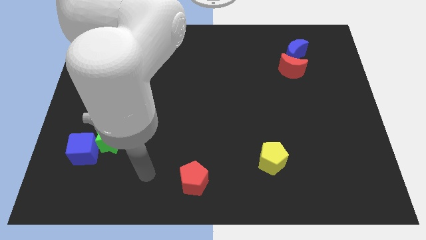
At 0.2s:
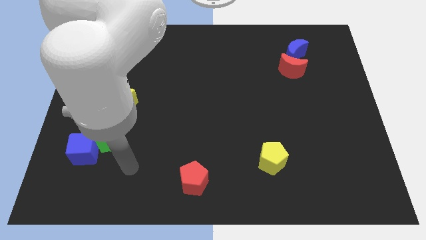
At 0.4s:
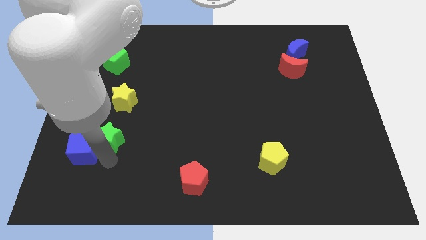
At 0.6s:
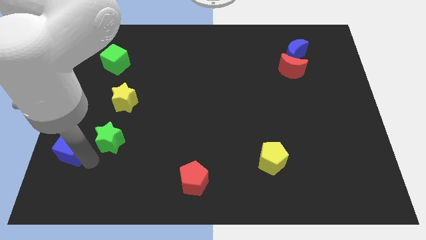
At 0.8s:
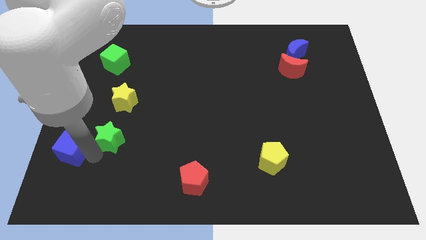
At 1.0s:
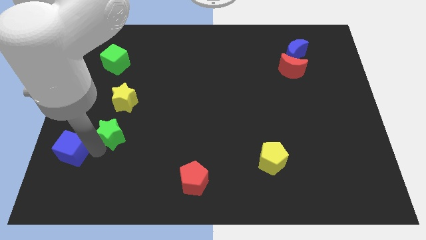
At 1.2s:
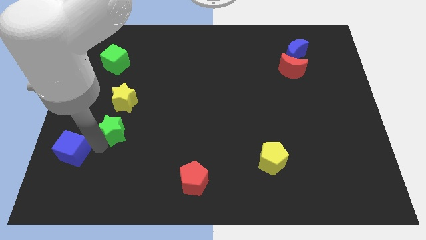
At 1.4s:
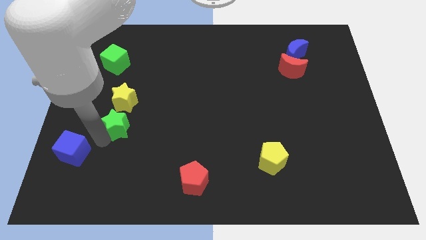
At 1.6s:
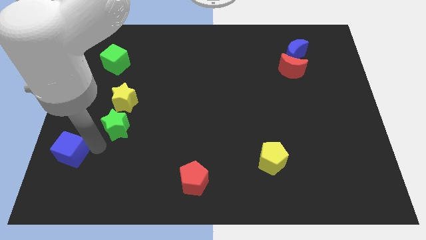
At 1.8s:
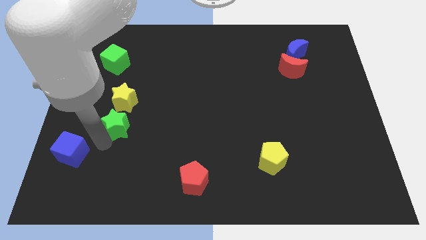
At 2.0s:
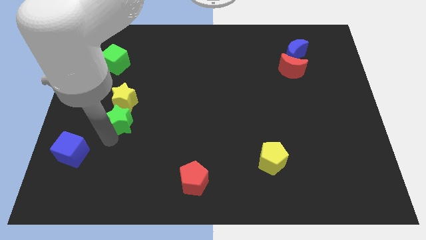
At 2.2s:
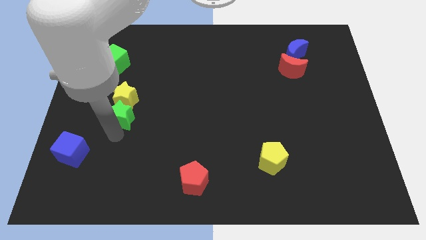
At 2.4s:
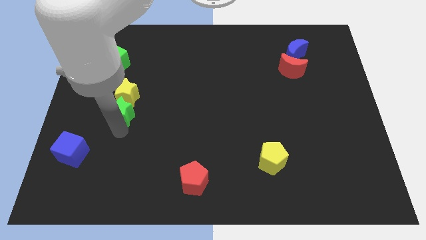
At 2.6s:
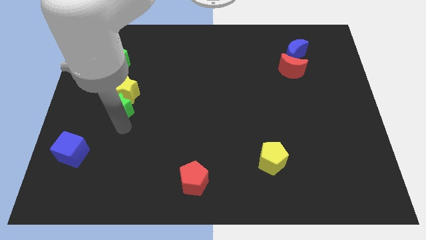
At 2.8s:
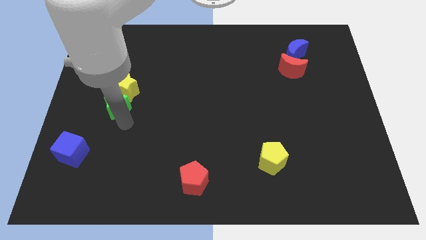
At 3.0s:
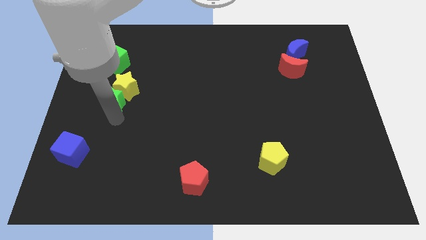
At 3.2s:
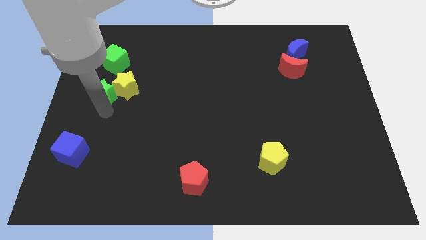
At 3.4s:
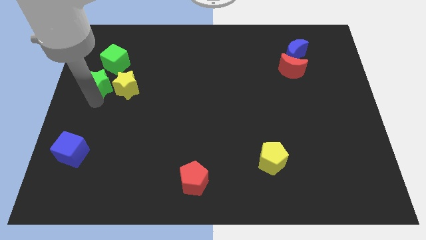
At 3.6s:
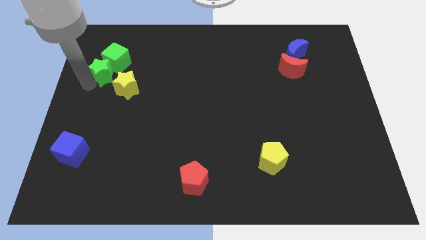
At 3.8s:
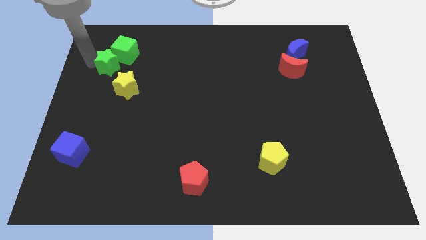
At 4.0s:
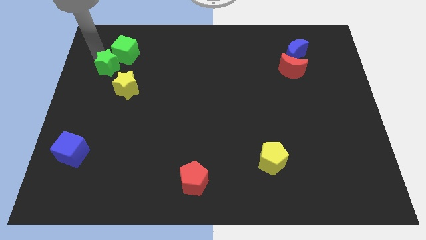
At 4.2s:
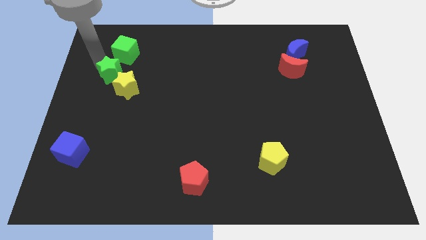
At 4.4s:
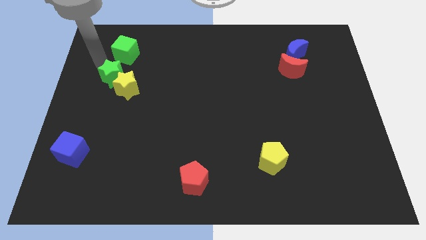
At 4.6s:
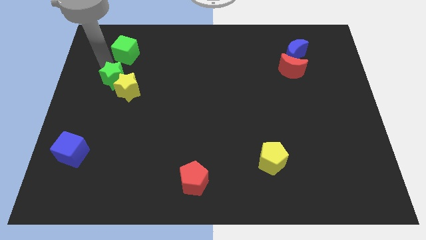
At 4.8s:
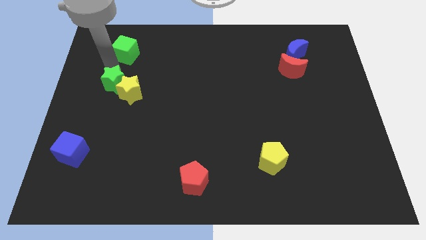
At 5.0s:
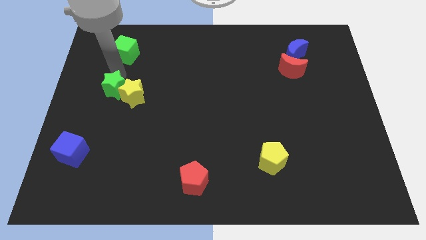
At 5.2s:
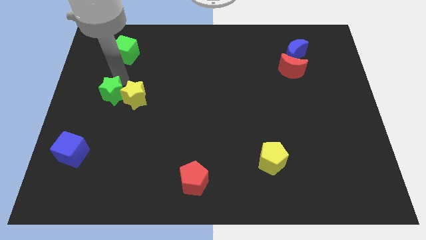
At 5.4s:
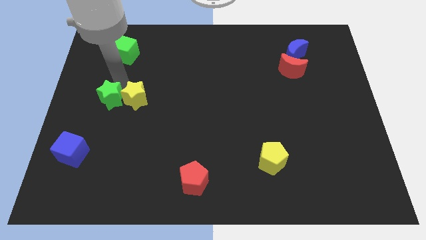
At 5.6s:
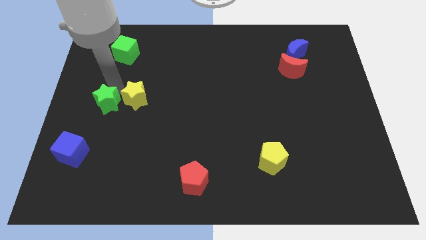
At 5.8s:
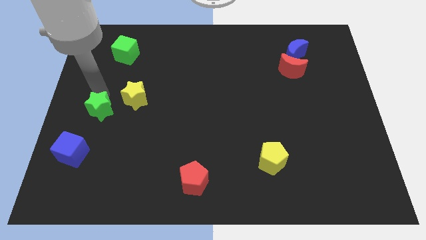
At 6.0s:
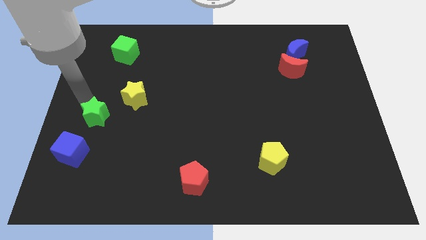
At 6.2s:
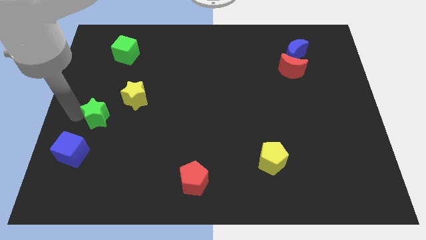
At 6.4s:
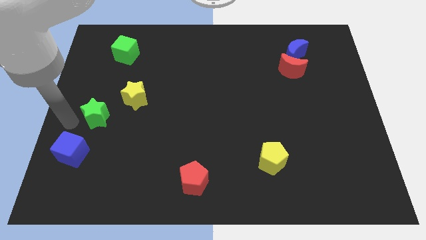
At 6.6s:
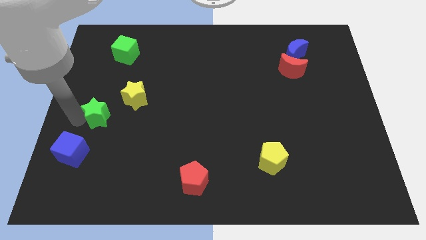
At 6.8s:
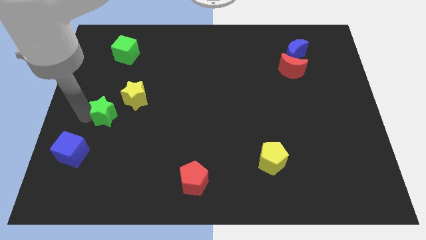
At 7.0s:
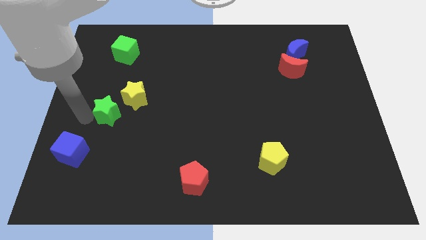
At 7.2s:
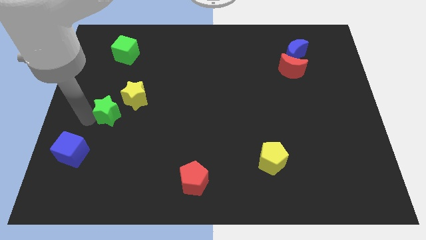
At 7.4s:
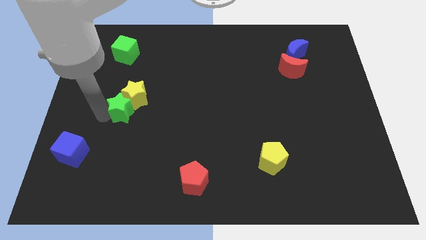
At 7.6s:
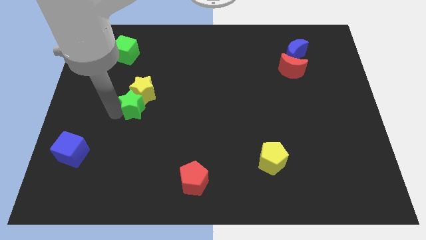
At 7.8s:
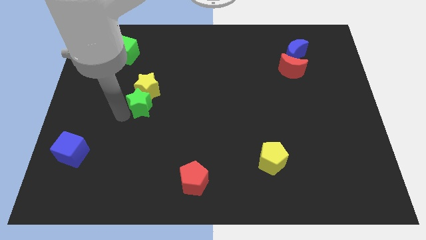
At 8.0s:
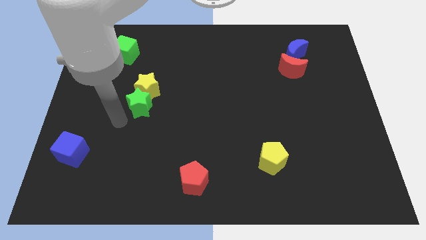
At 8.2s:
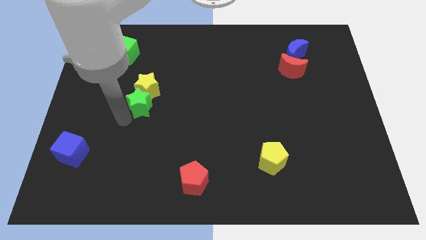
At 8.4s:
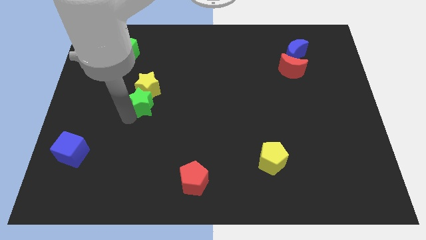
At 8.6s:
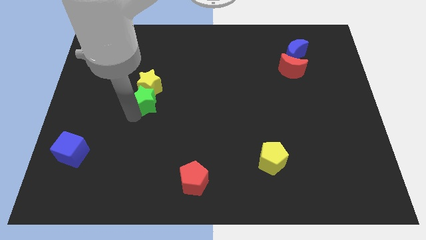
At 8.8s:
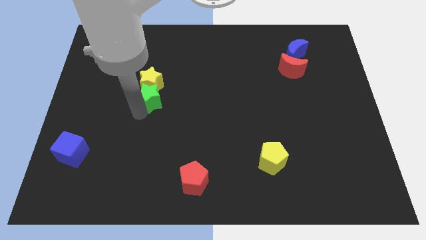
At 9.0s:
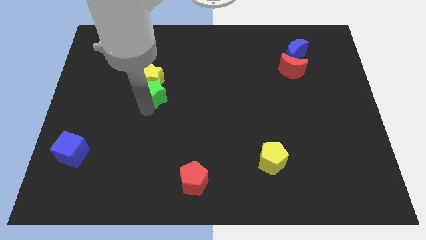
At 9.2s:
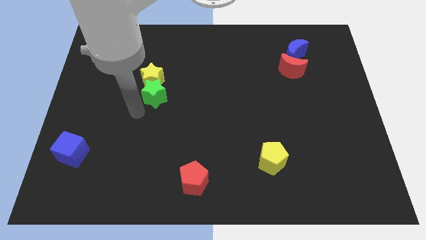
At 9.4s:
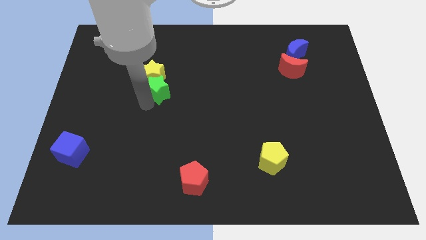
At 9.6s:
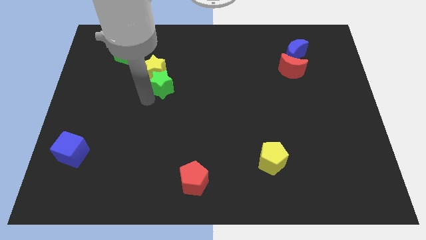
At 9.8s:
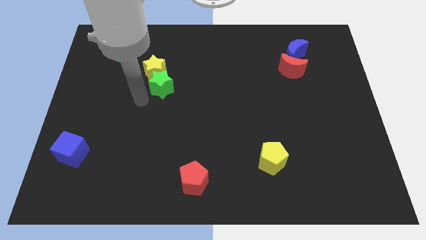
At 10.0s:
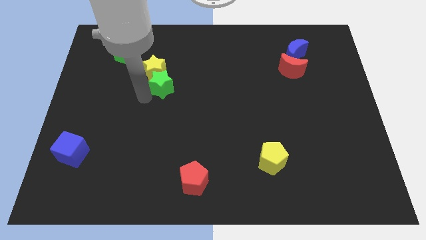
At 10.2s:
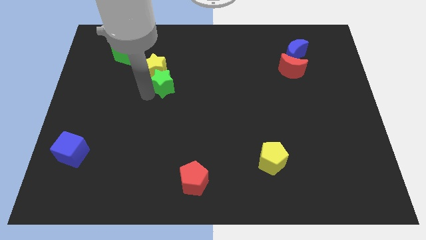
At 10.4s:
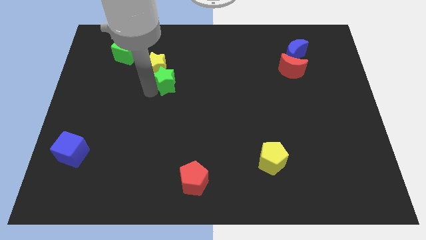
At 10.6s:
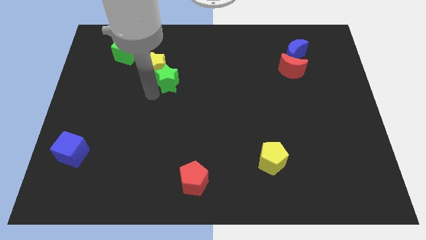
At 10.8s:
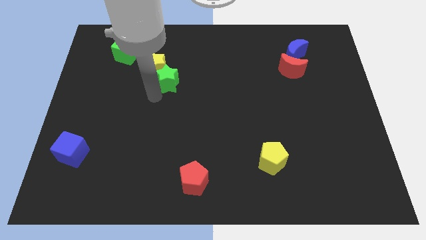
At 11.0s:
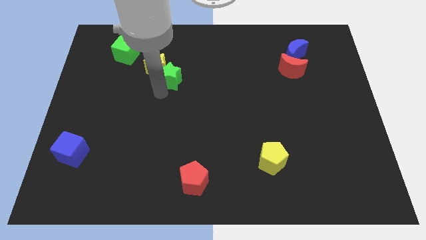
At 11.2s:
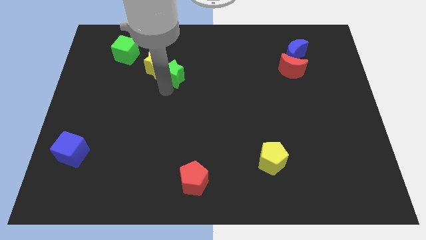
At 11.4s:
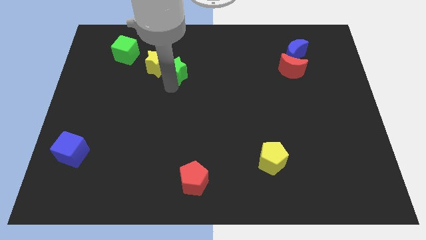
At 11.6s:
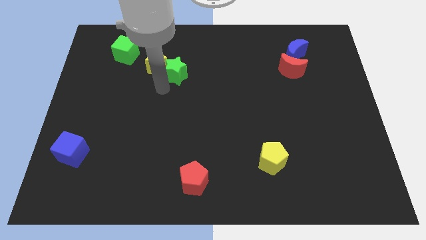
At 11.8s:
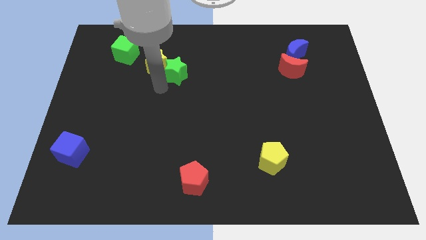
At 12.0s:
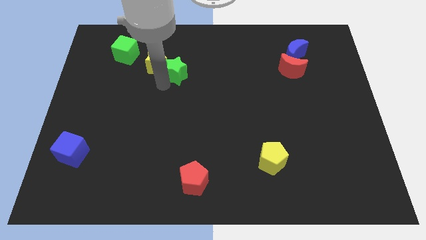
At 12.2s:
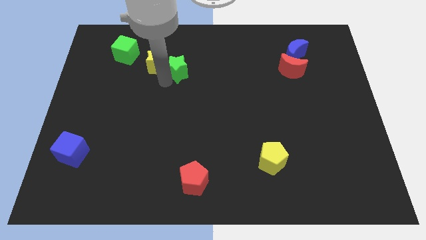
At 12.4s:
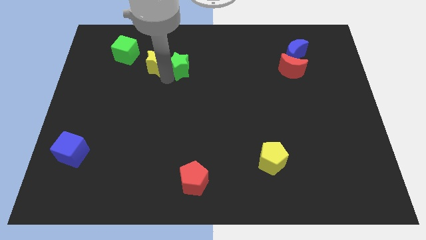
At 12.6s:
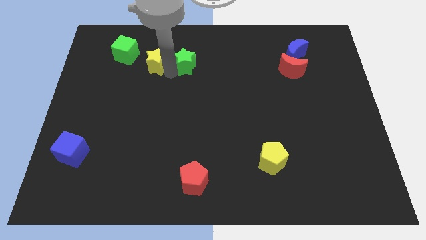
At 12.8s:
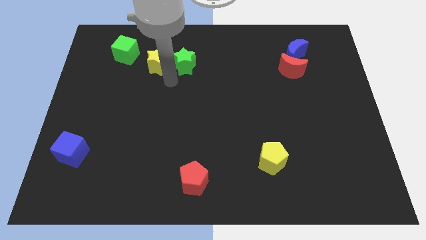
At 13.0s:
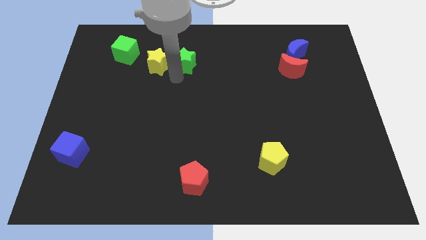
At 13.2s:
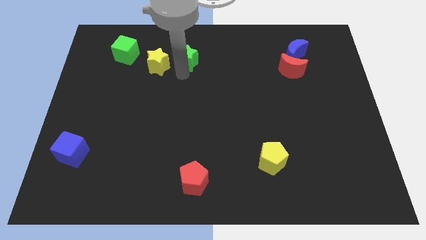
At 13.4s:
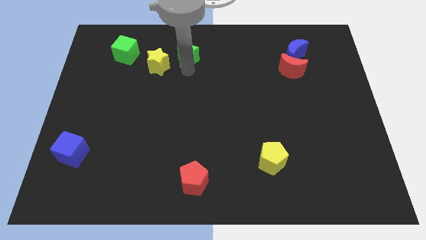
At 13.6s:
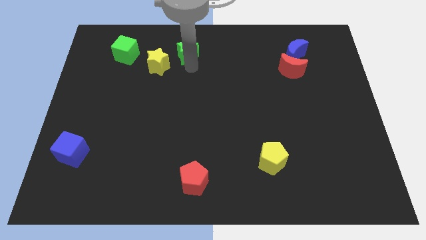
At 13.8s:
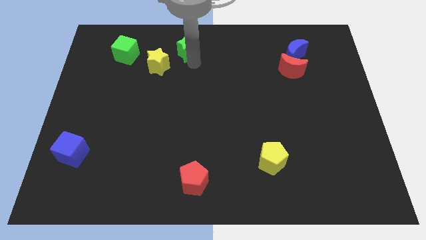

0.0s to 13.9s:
push the green star to the top side
